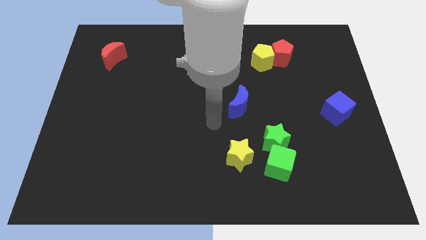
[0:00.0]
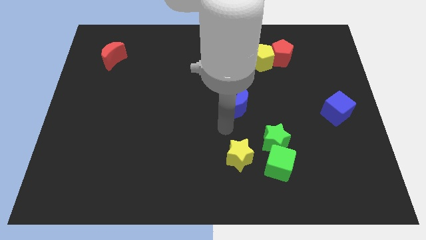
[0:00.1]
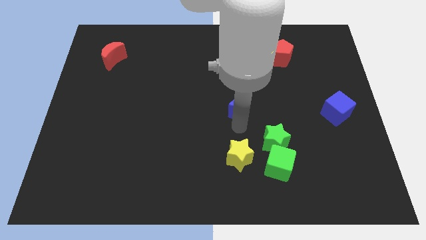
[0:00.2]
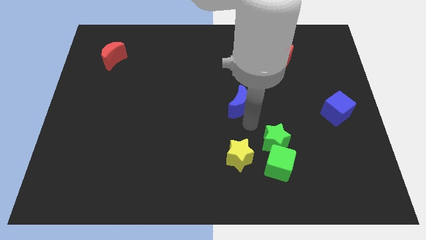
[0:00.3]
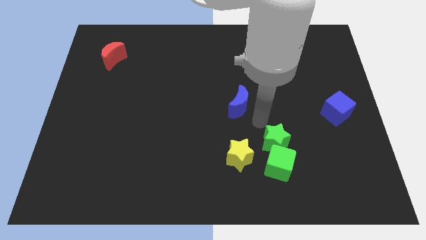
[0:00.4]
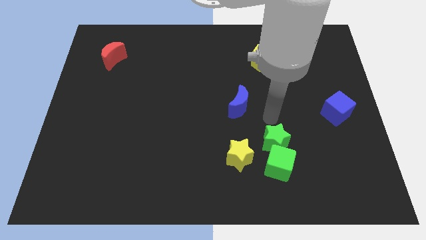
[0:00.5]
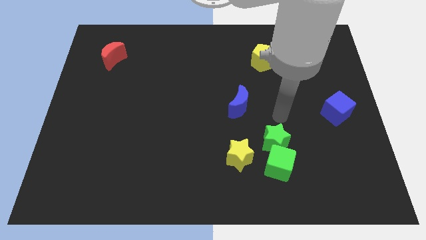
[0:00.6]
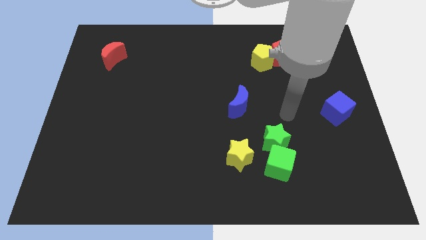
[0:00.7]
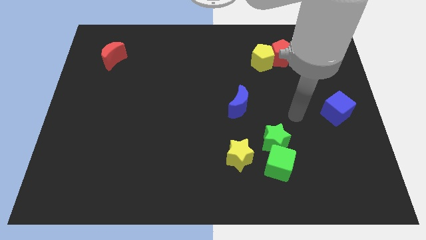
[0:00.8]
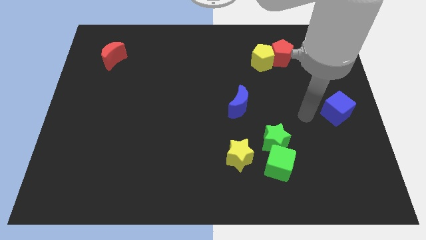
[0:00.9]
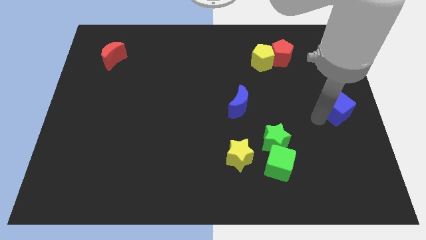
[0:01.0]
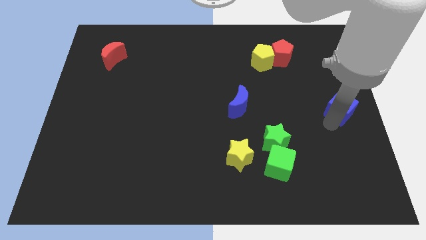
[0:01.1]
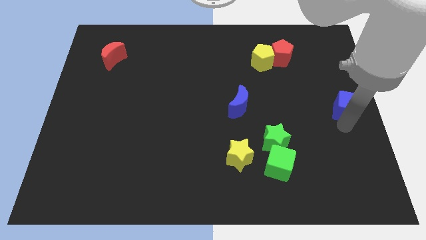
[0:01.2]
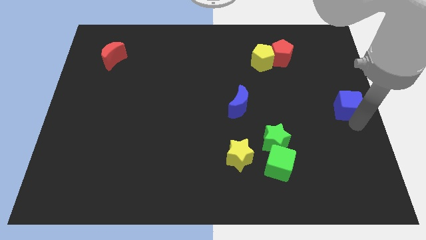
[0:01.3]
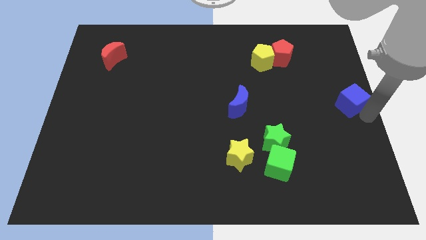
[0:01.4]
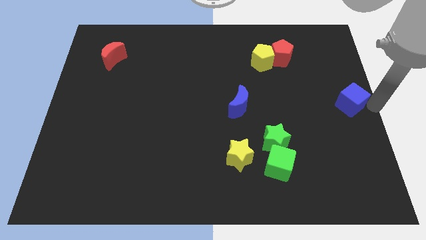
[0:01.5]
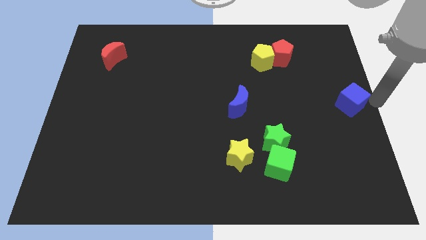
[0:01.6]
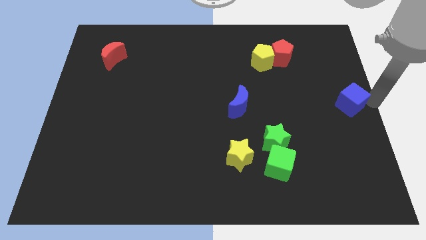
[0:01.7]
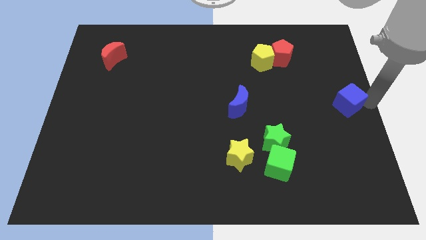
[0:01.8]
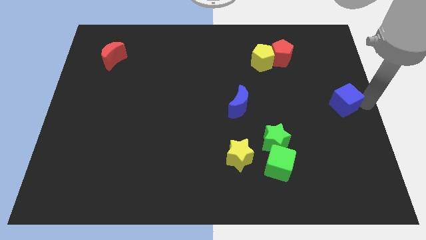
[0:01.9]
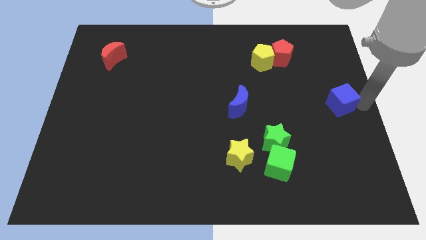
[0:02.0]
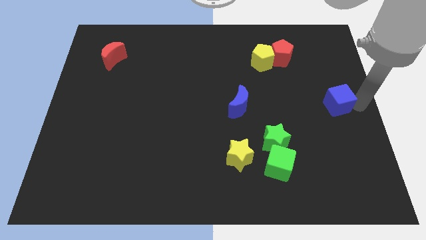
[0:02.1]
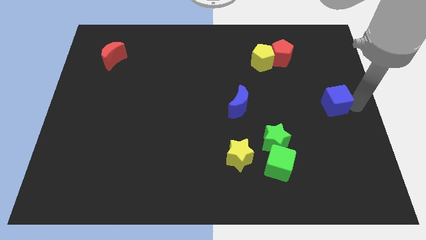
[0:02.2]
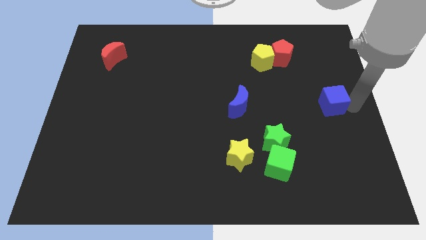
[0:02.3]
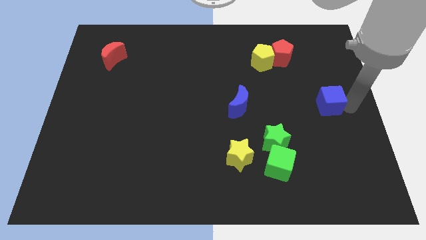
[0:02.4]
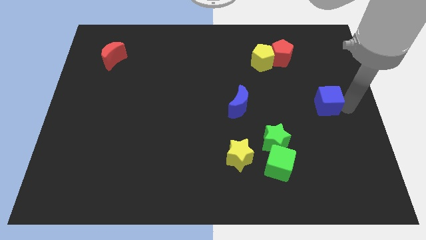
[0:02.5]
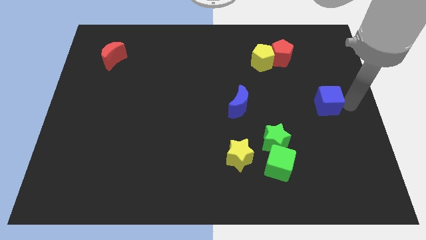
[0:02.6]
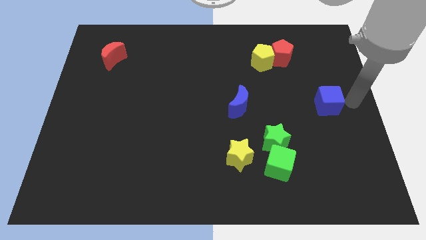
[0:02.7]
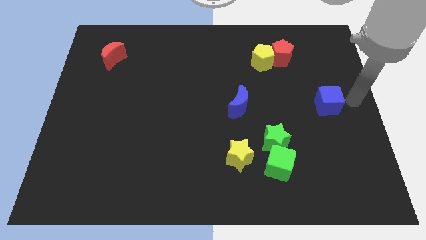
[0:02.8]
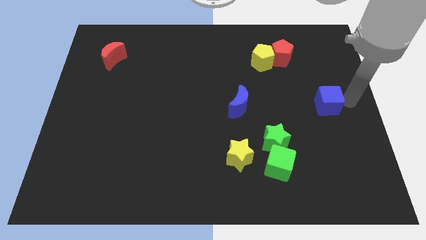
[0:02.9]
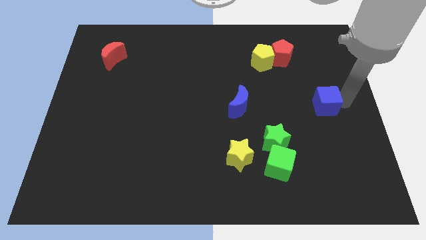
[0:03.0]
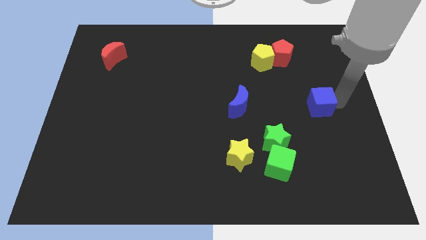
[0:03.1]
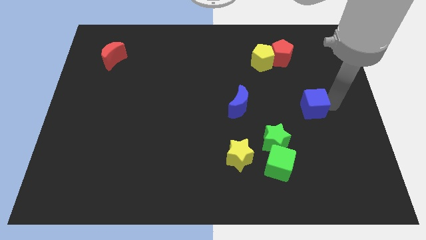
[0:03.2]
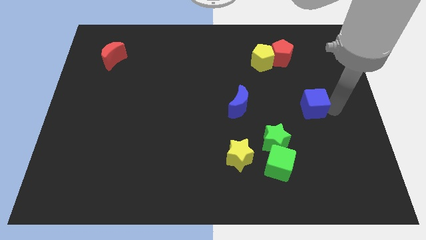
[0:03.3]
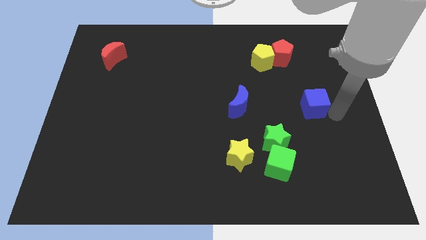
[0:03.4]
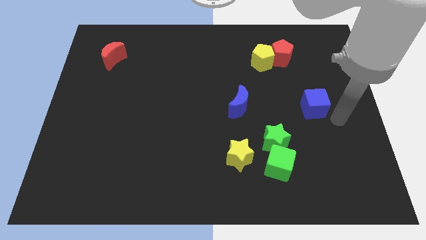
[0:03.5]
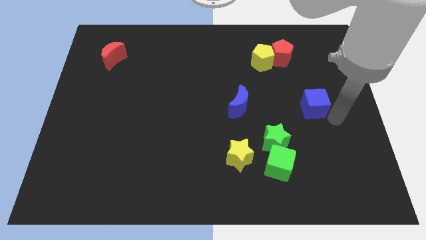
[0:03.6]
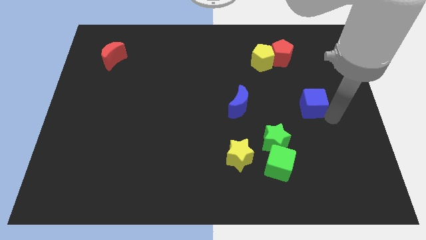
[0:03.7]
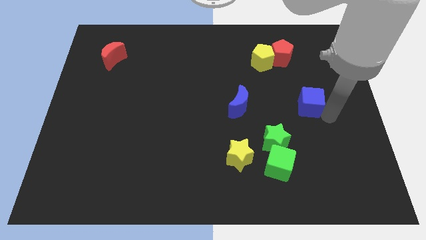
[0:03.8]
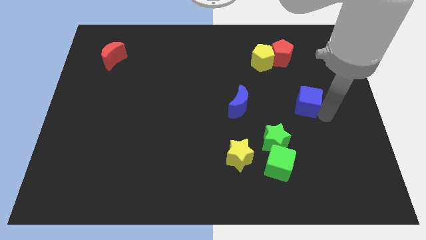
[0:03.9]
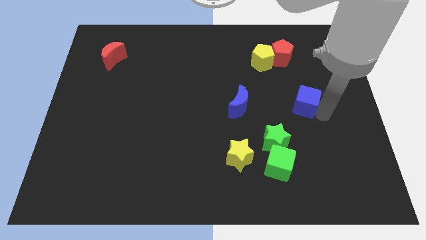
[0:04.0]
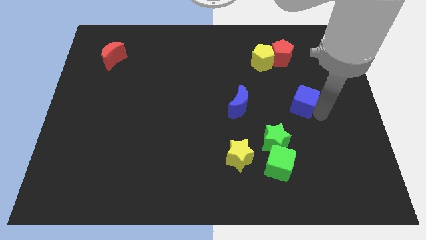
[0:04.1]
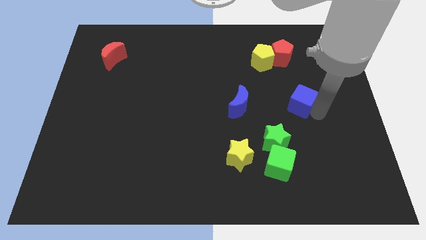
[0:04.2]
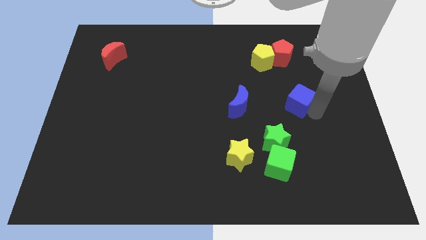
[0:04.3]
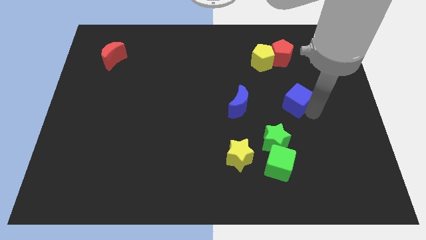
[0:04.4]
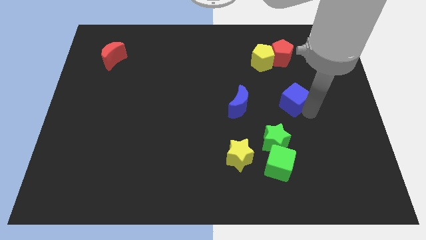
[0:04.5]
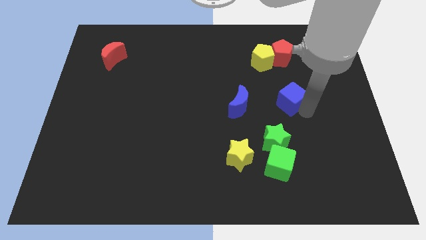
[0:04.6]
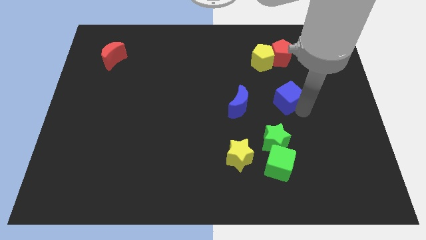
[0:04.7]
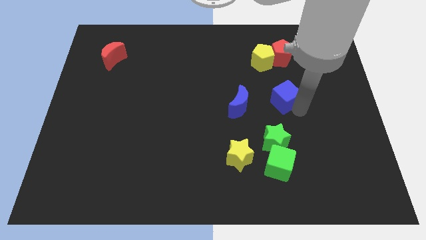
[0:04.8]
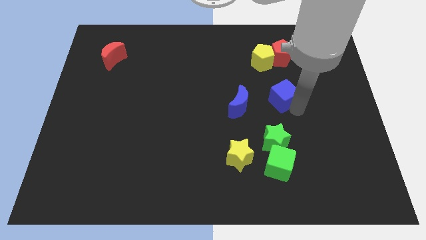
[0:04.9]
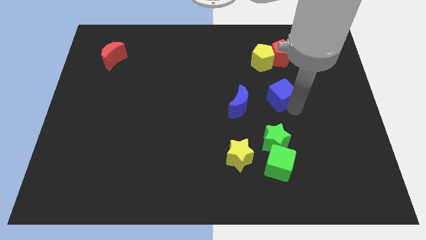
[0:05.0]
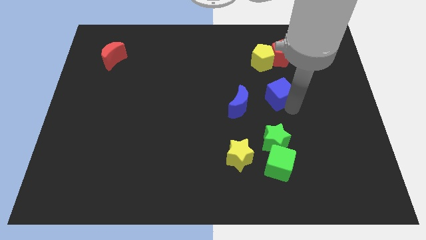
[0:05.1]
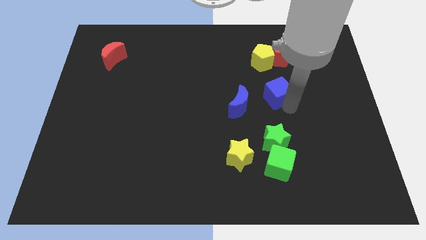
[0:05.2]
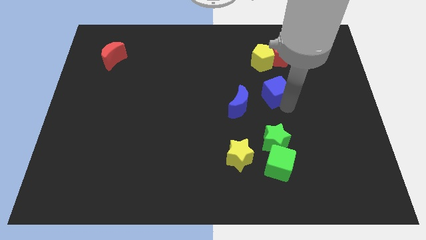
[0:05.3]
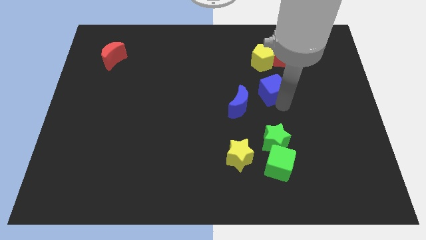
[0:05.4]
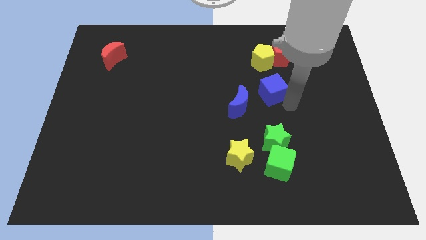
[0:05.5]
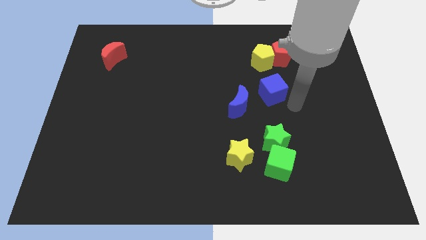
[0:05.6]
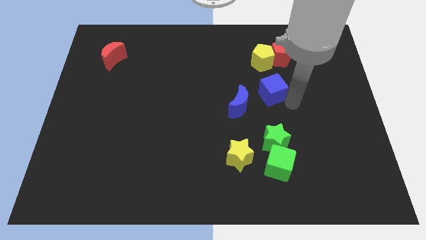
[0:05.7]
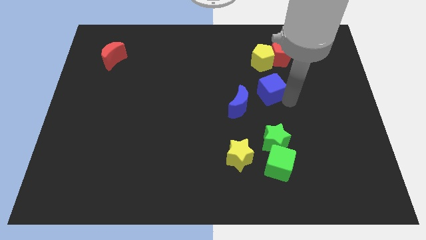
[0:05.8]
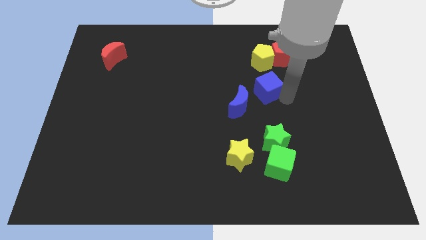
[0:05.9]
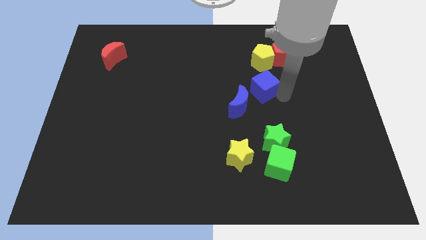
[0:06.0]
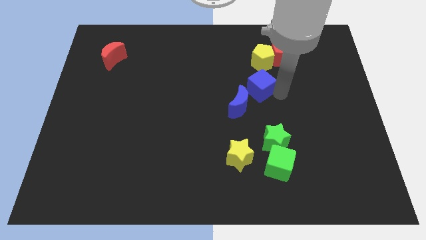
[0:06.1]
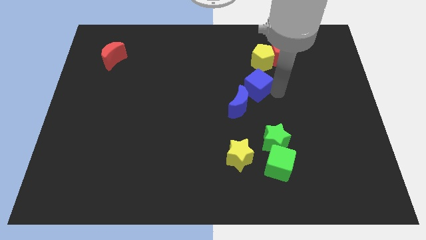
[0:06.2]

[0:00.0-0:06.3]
move the blue cube to the top of the blue moon

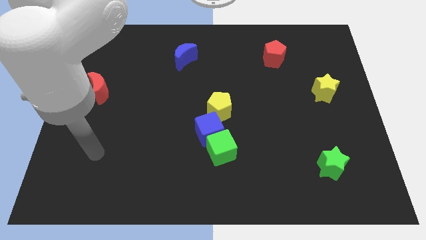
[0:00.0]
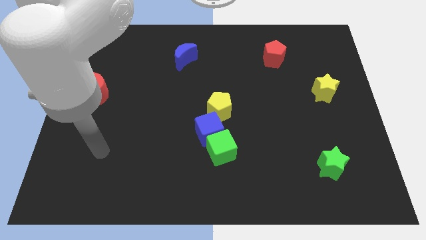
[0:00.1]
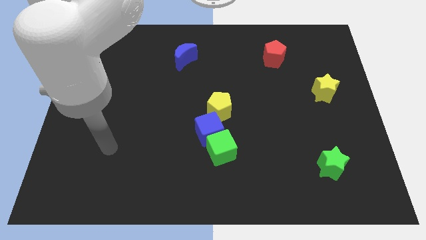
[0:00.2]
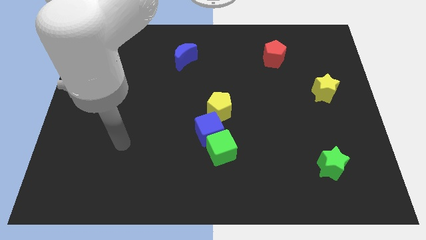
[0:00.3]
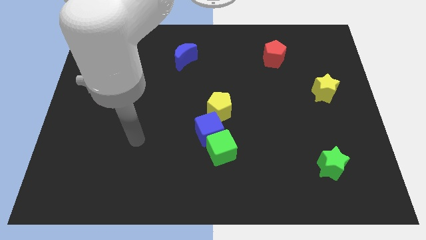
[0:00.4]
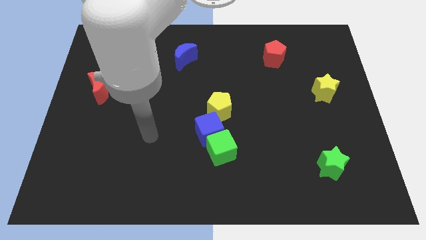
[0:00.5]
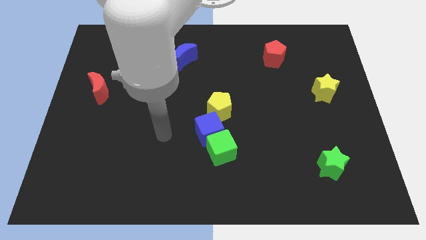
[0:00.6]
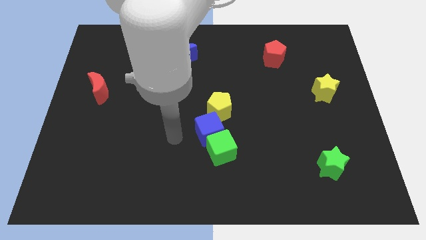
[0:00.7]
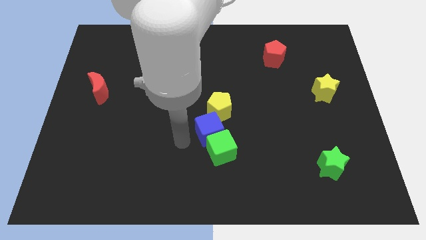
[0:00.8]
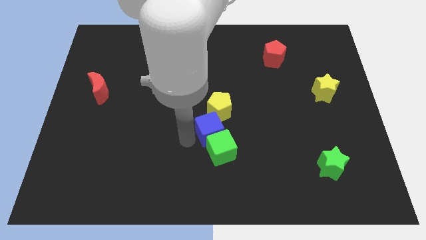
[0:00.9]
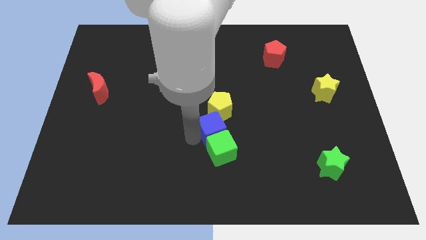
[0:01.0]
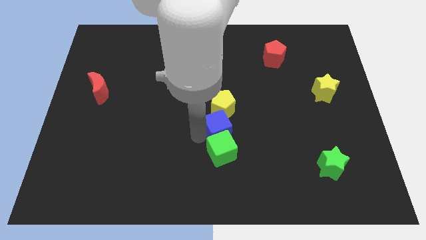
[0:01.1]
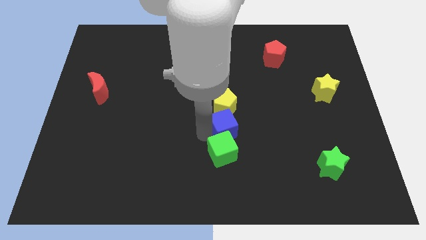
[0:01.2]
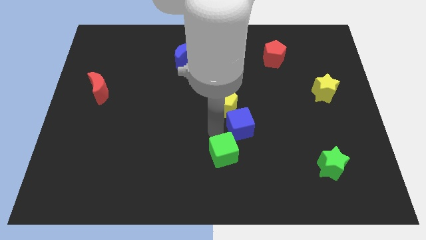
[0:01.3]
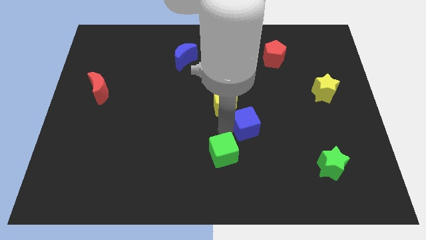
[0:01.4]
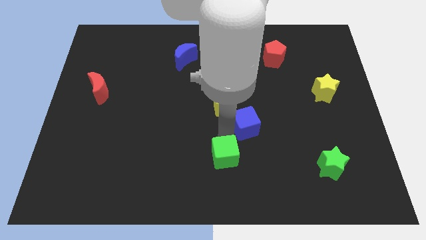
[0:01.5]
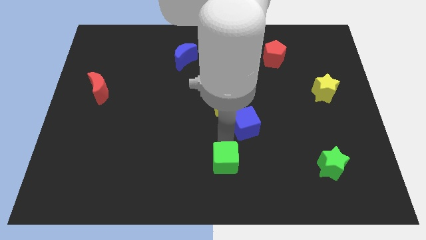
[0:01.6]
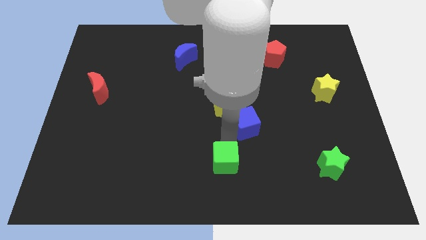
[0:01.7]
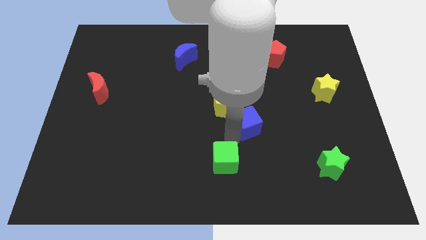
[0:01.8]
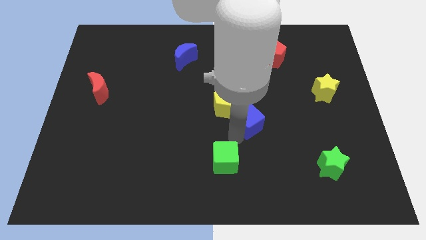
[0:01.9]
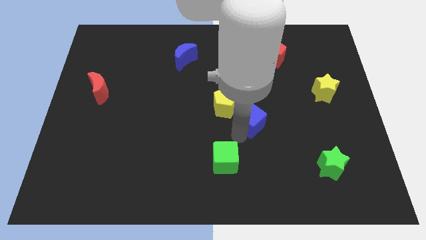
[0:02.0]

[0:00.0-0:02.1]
move the blue cube just right of the yellow pentagon
